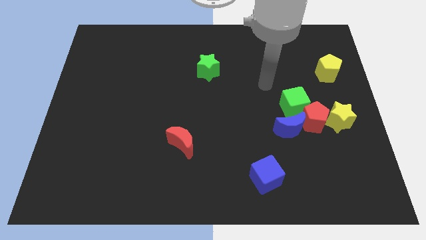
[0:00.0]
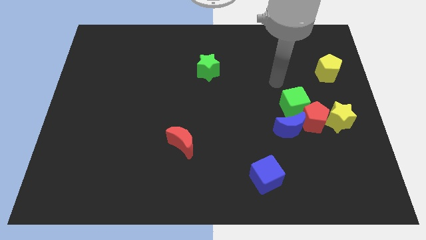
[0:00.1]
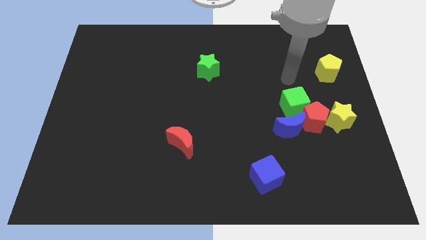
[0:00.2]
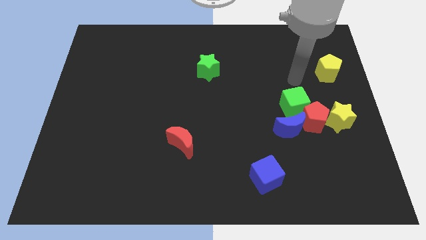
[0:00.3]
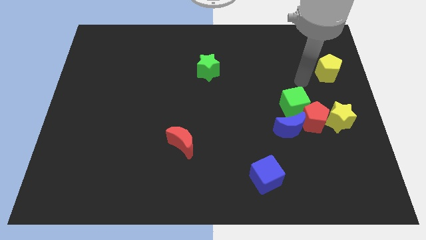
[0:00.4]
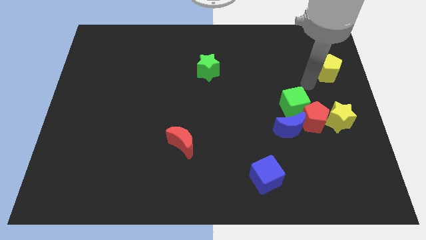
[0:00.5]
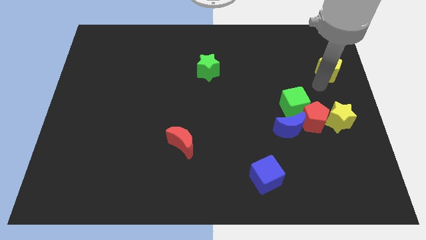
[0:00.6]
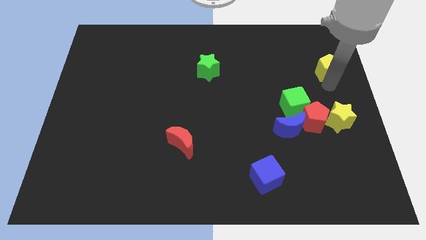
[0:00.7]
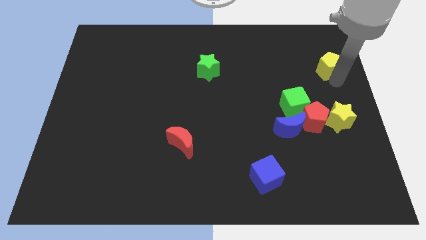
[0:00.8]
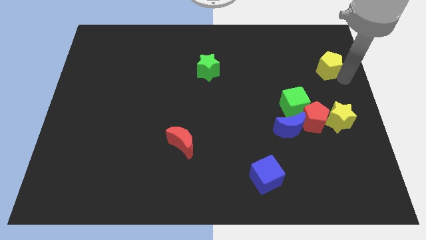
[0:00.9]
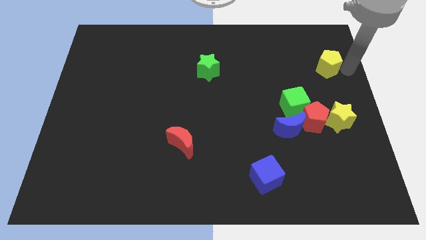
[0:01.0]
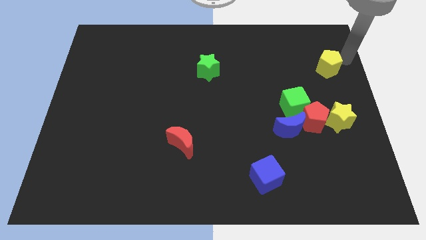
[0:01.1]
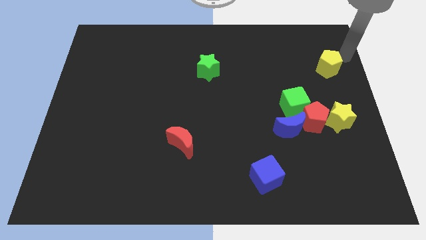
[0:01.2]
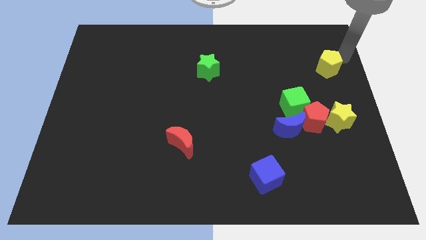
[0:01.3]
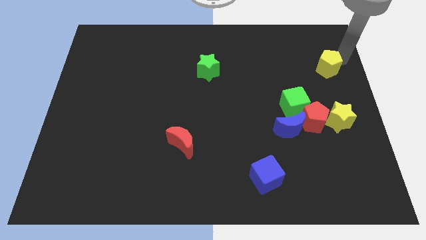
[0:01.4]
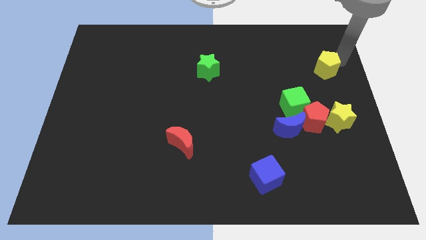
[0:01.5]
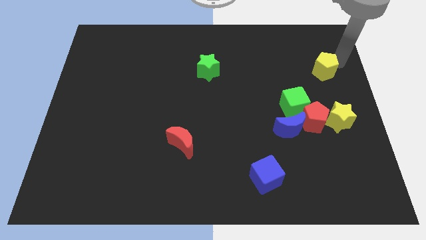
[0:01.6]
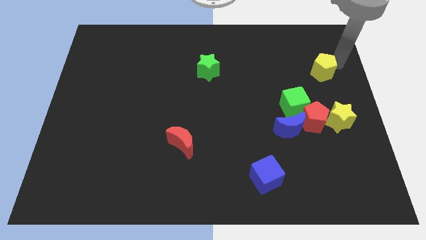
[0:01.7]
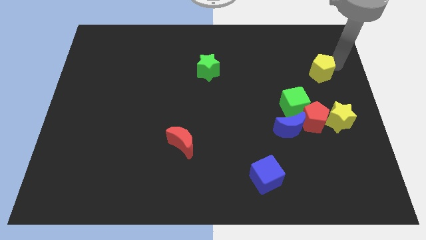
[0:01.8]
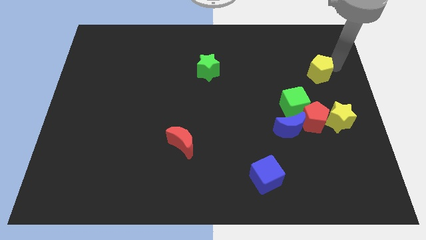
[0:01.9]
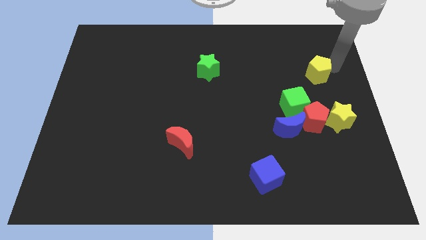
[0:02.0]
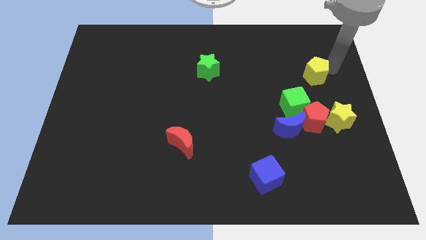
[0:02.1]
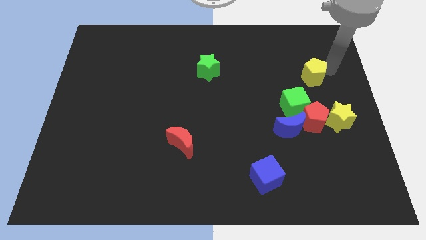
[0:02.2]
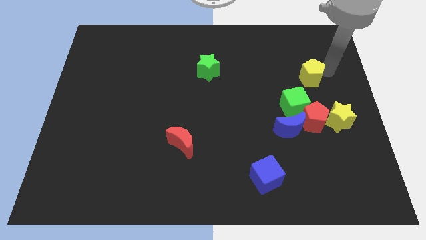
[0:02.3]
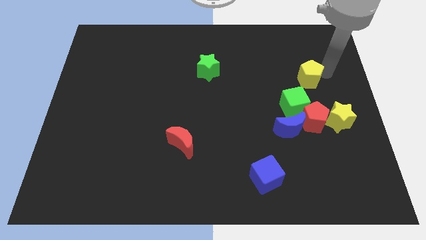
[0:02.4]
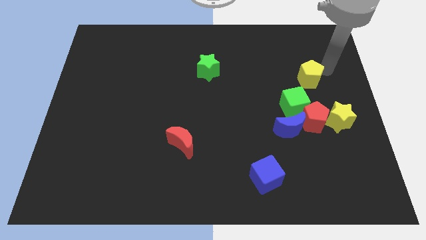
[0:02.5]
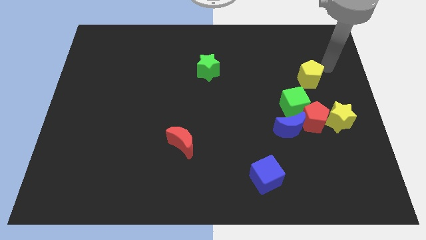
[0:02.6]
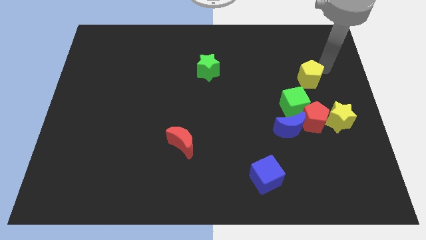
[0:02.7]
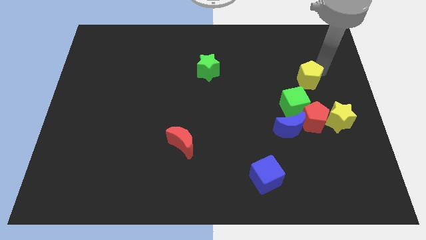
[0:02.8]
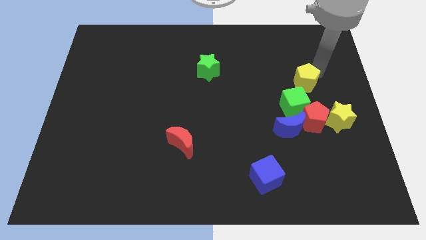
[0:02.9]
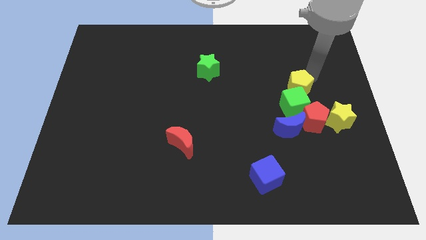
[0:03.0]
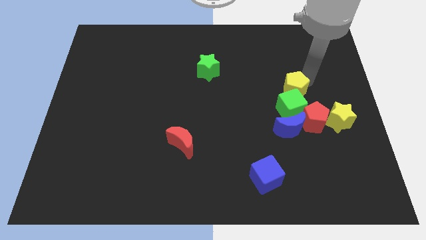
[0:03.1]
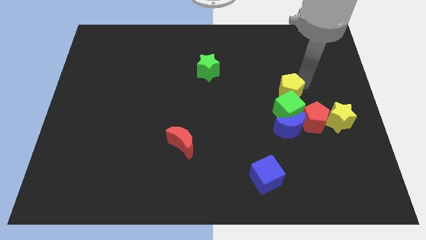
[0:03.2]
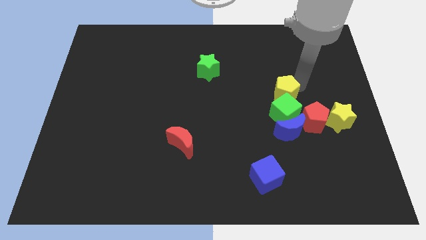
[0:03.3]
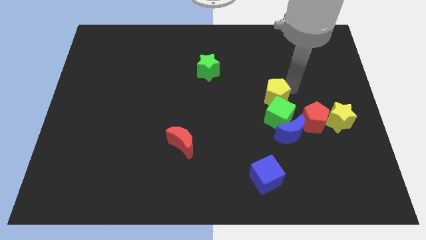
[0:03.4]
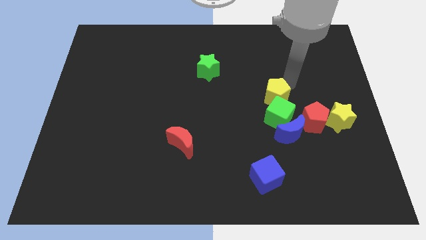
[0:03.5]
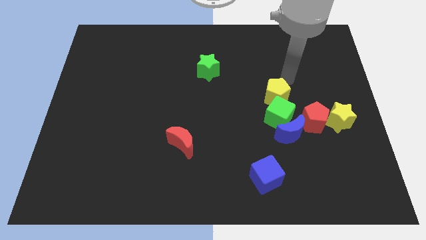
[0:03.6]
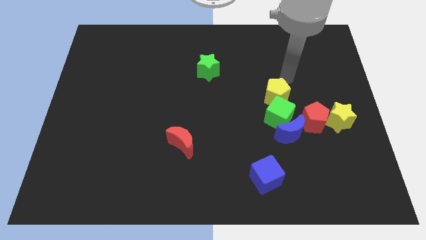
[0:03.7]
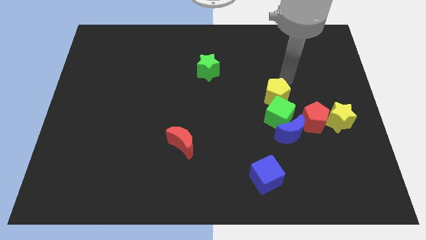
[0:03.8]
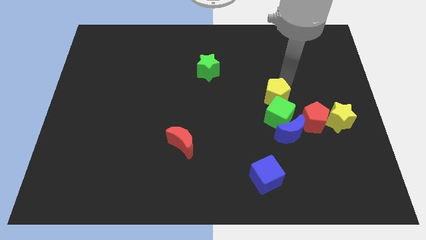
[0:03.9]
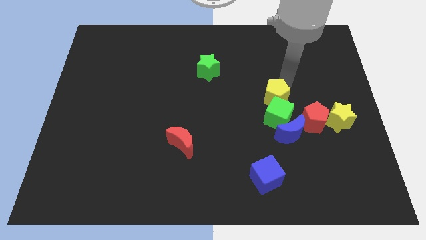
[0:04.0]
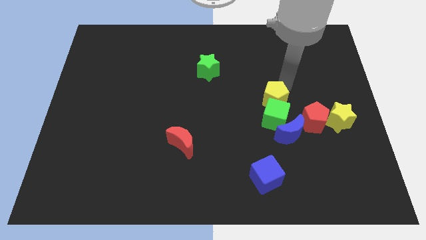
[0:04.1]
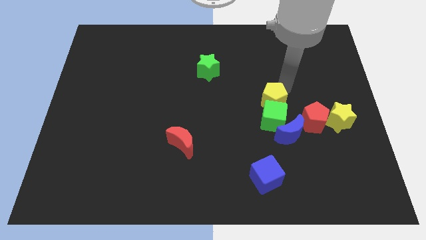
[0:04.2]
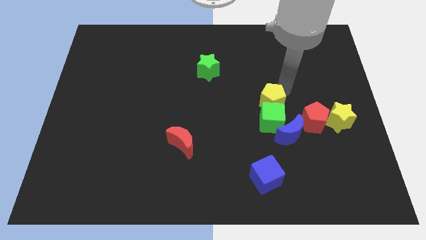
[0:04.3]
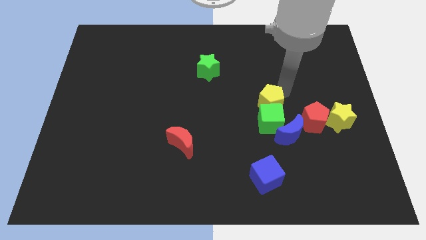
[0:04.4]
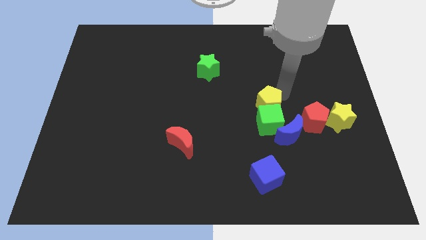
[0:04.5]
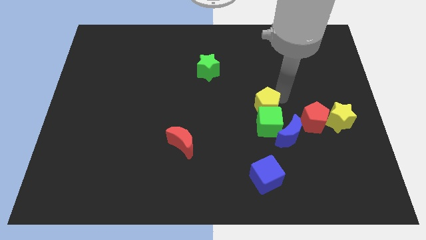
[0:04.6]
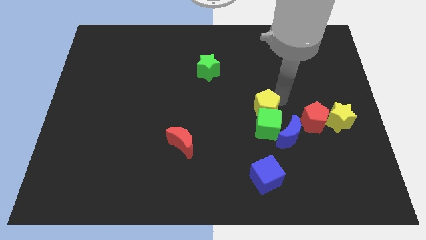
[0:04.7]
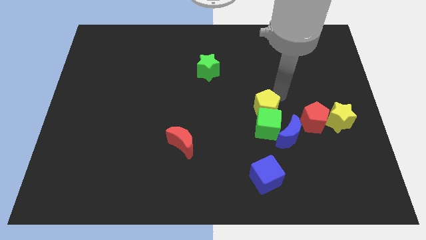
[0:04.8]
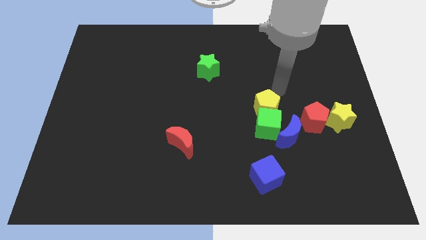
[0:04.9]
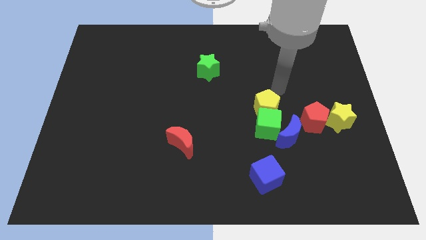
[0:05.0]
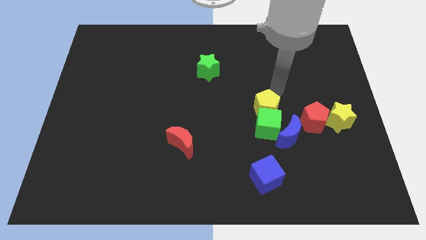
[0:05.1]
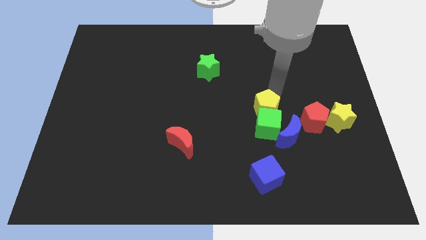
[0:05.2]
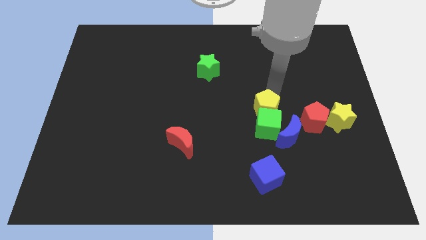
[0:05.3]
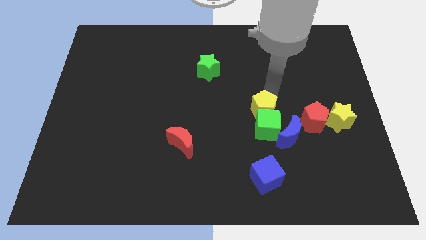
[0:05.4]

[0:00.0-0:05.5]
move the yellow pentagon downwards and then left

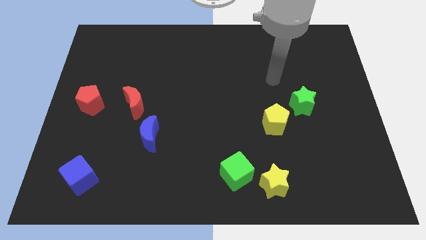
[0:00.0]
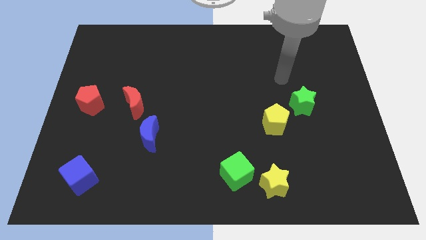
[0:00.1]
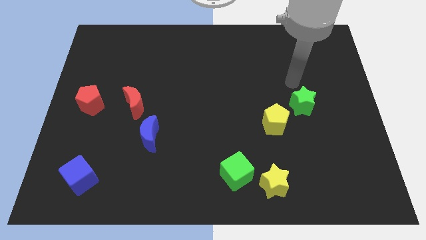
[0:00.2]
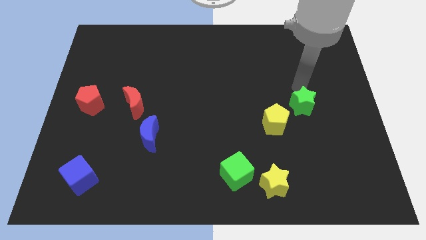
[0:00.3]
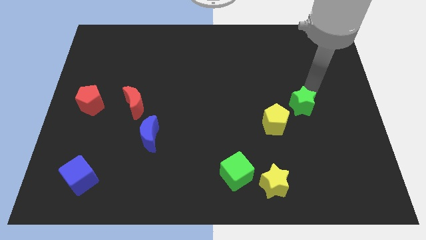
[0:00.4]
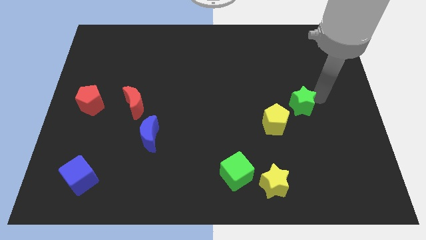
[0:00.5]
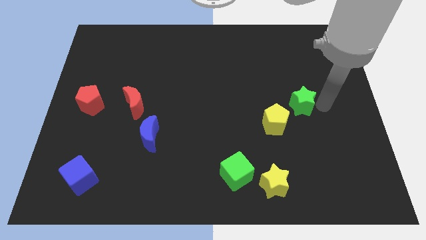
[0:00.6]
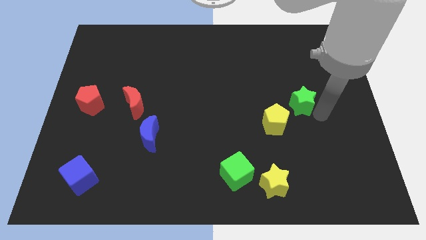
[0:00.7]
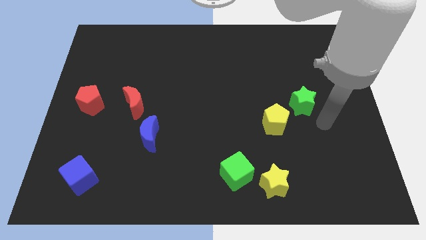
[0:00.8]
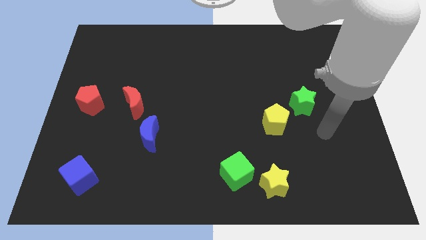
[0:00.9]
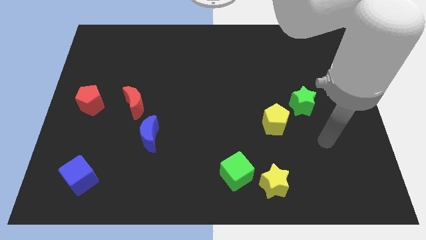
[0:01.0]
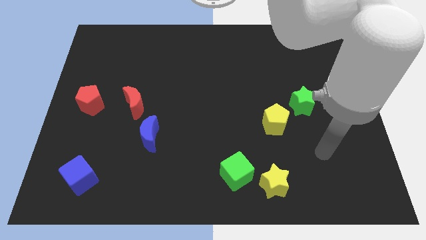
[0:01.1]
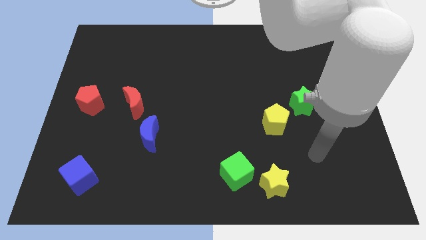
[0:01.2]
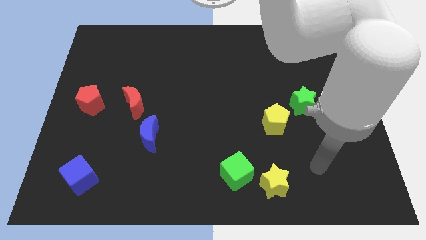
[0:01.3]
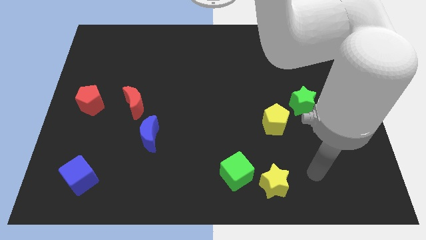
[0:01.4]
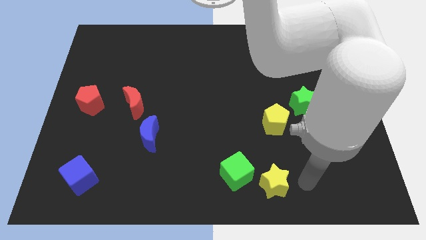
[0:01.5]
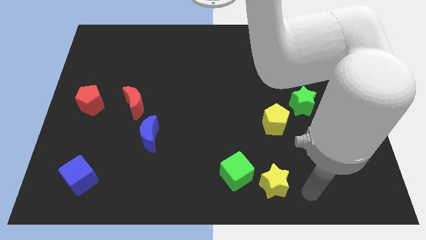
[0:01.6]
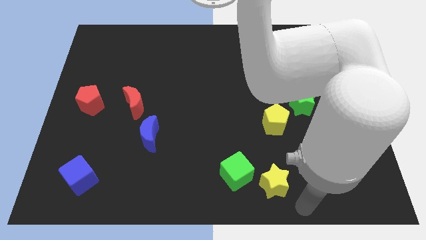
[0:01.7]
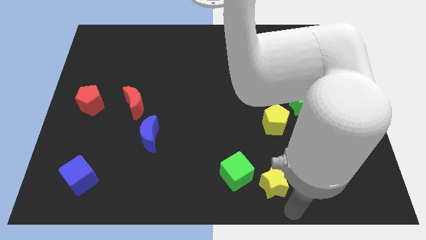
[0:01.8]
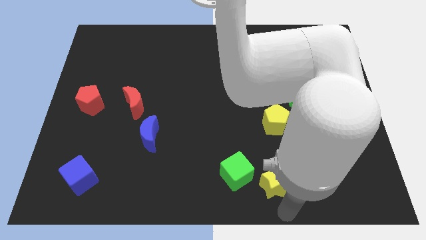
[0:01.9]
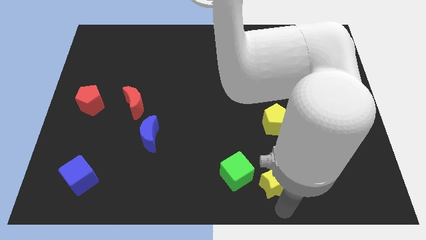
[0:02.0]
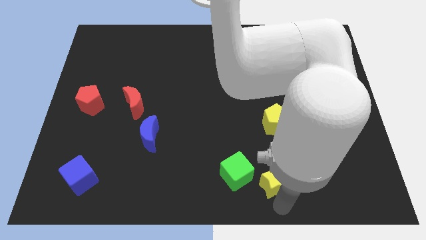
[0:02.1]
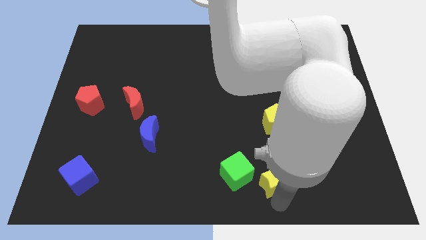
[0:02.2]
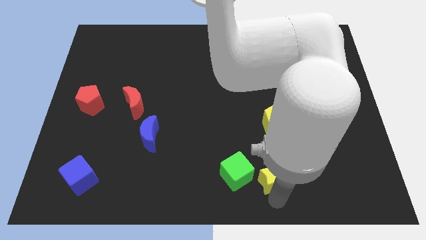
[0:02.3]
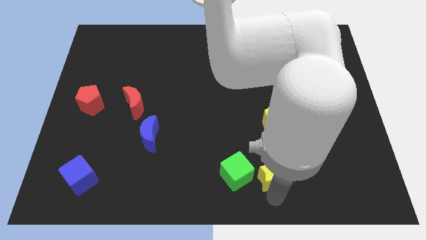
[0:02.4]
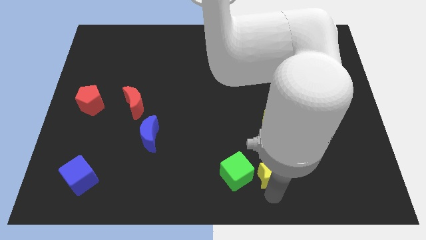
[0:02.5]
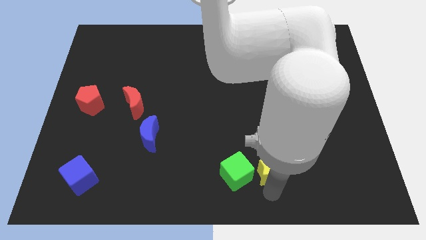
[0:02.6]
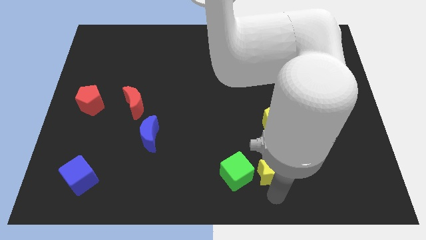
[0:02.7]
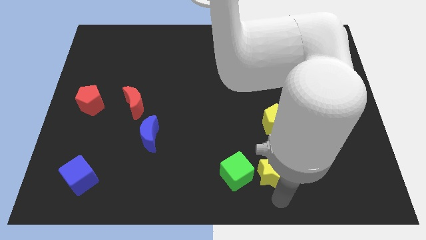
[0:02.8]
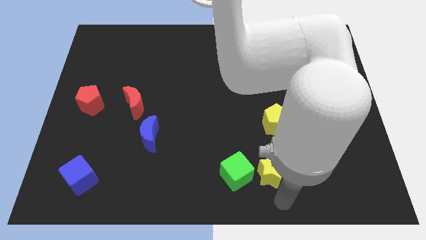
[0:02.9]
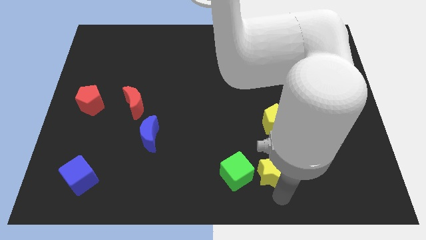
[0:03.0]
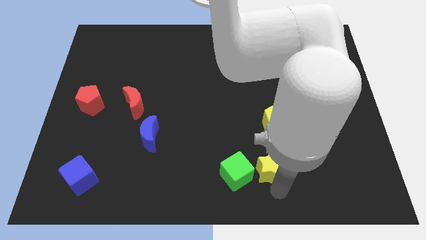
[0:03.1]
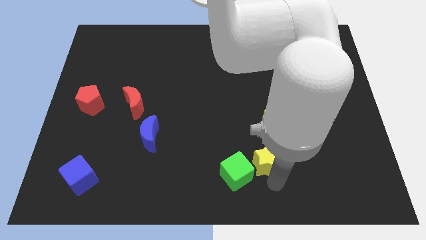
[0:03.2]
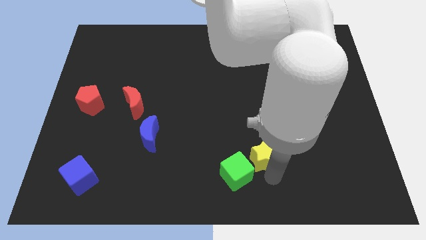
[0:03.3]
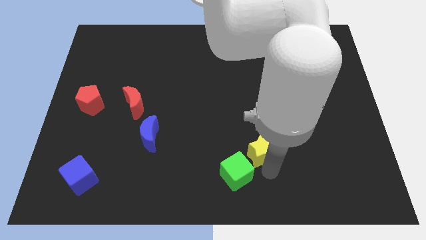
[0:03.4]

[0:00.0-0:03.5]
move the yellow star upwards a bit
